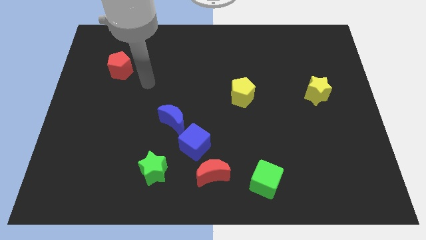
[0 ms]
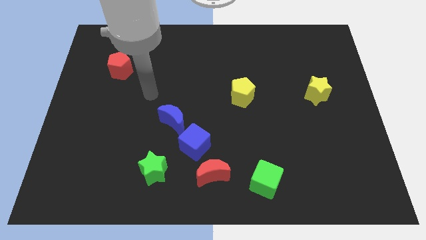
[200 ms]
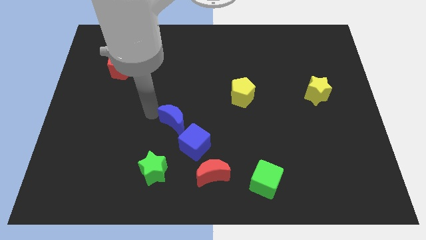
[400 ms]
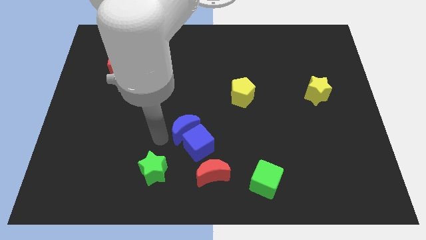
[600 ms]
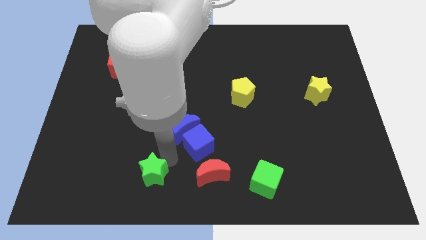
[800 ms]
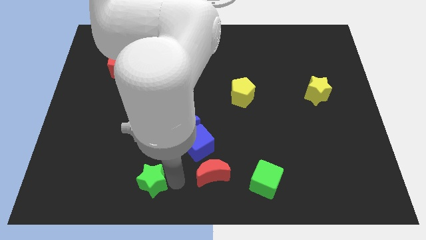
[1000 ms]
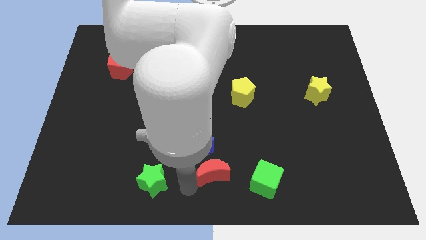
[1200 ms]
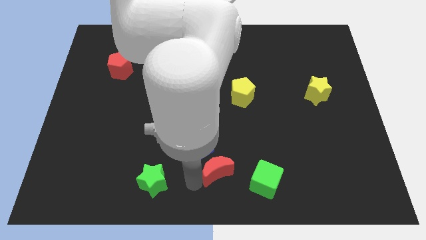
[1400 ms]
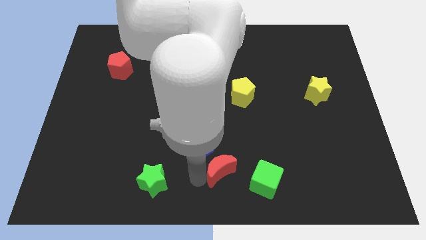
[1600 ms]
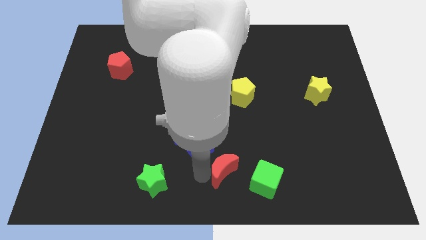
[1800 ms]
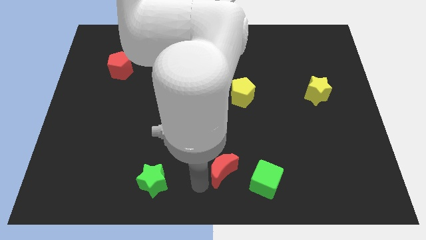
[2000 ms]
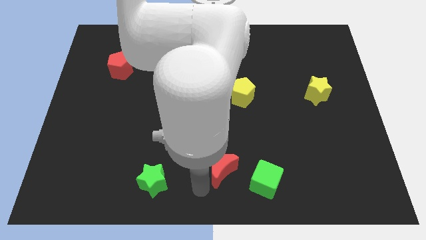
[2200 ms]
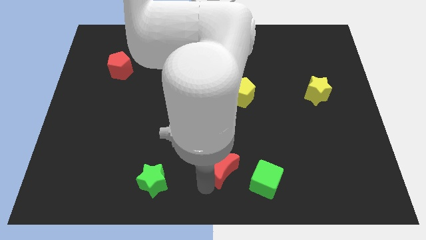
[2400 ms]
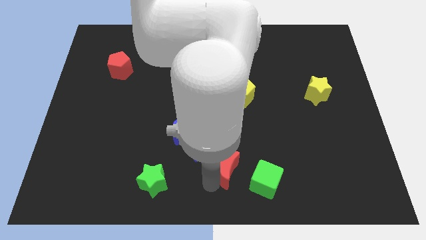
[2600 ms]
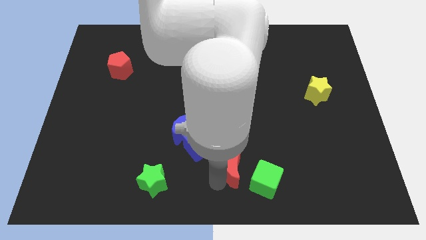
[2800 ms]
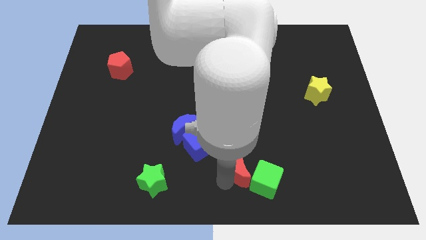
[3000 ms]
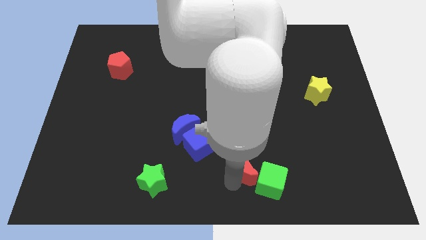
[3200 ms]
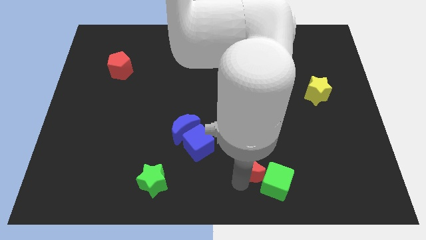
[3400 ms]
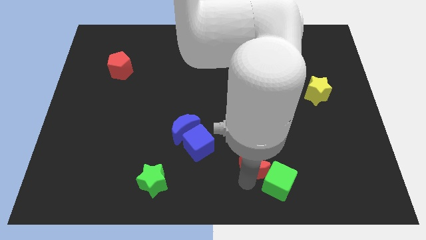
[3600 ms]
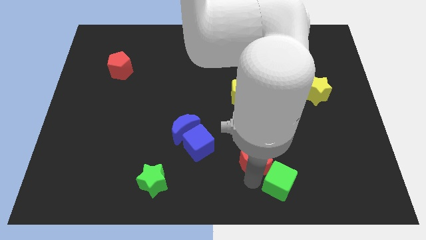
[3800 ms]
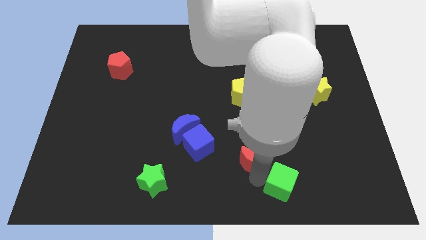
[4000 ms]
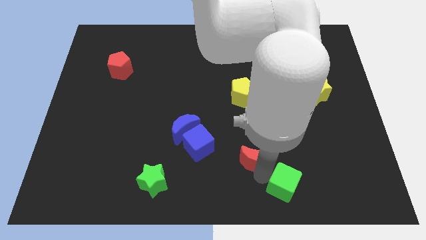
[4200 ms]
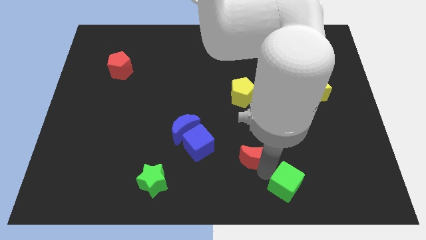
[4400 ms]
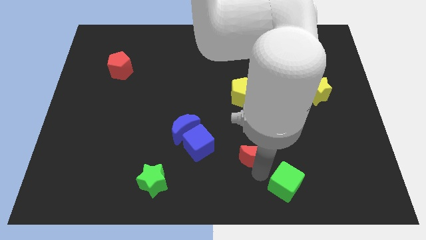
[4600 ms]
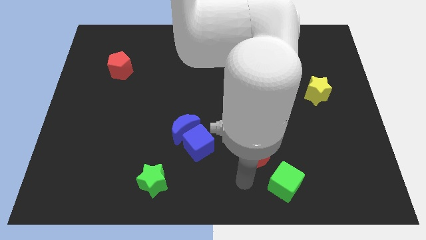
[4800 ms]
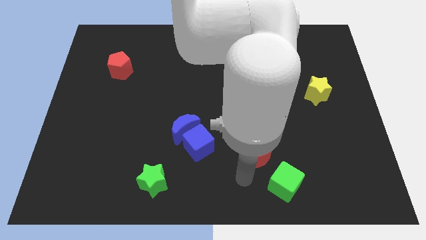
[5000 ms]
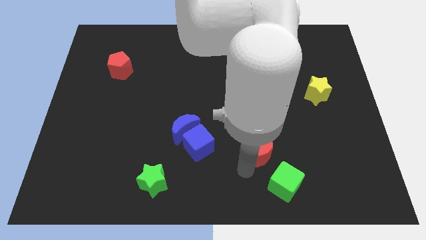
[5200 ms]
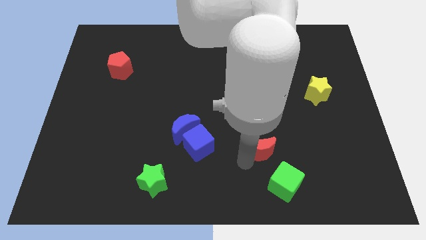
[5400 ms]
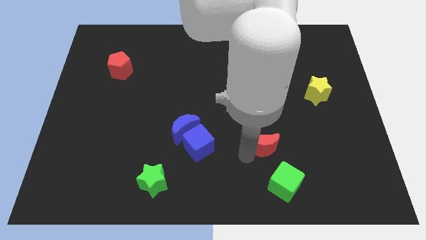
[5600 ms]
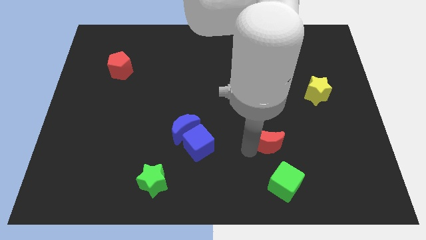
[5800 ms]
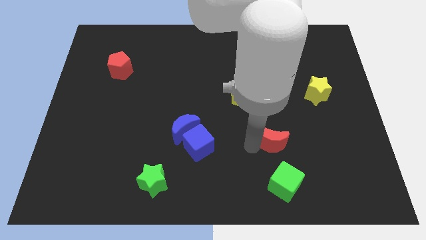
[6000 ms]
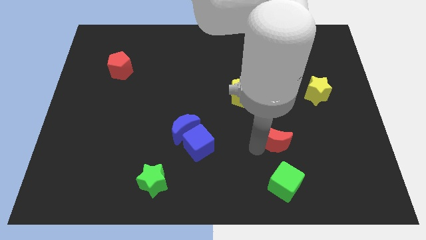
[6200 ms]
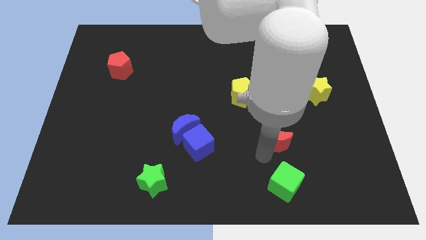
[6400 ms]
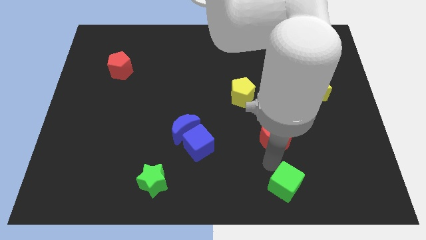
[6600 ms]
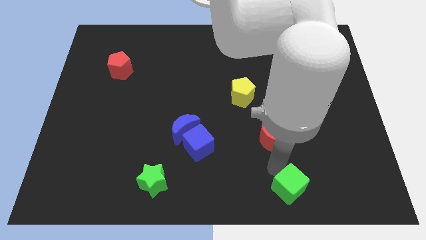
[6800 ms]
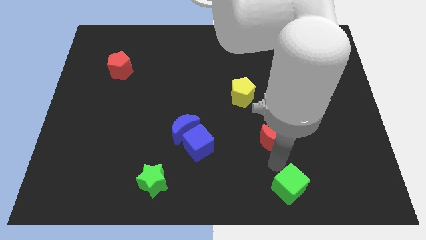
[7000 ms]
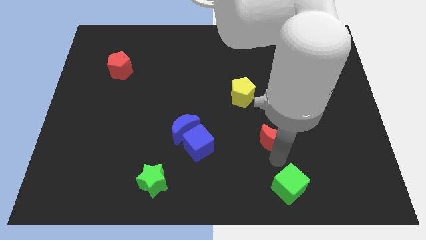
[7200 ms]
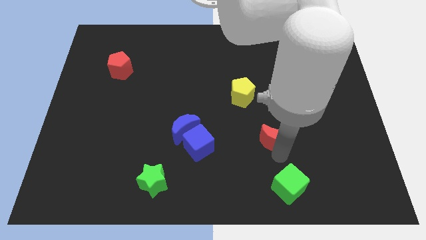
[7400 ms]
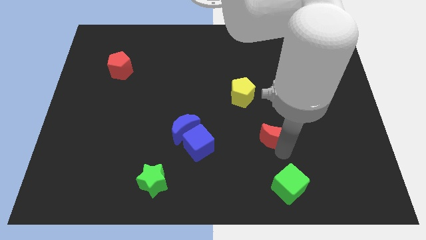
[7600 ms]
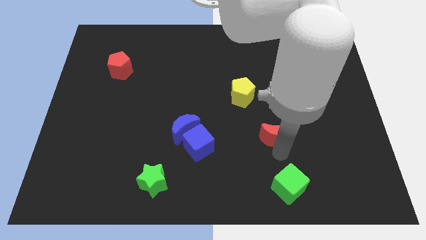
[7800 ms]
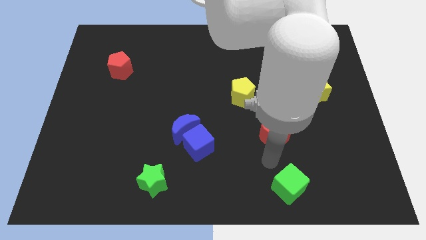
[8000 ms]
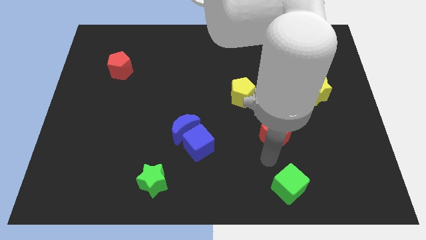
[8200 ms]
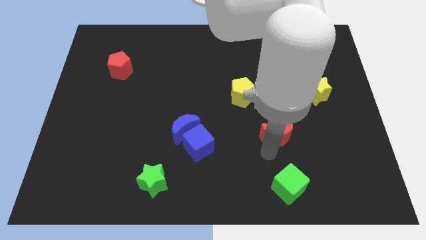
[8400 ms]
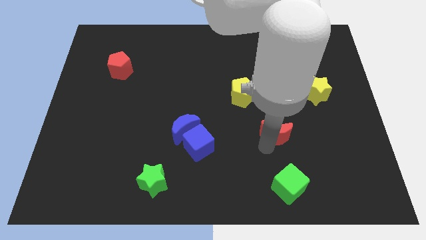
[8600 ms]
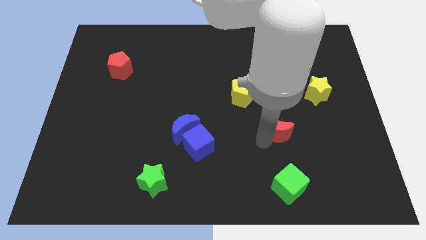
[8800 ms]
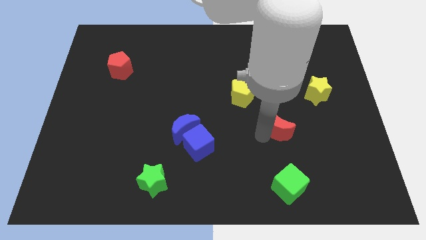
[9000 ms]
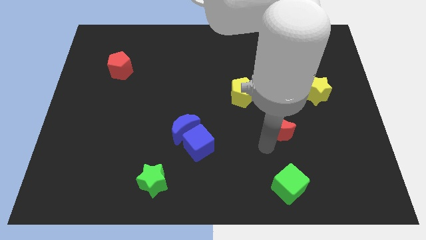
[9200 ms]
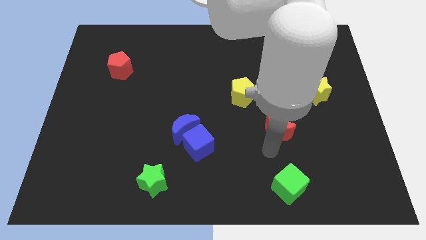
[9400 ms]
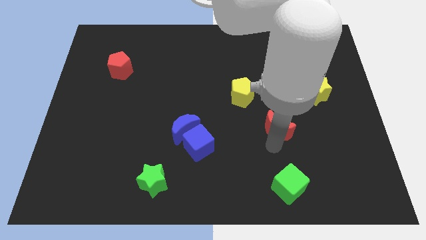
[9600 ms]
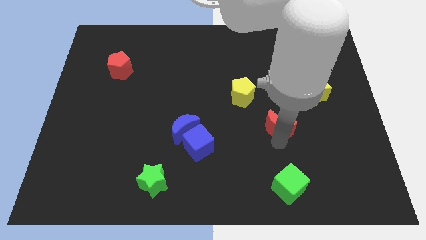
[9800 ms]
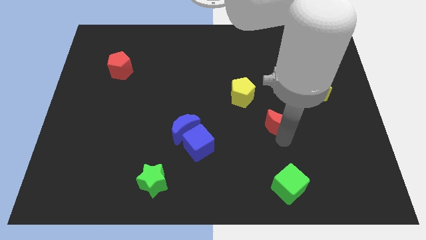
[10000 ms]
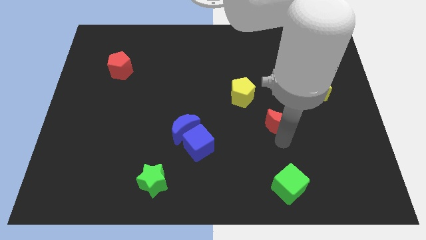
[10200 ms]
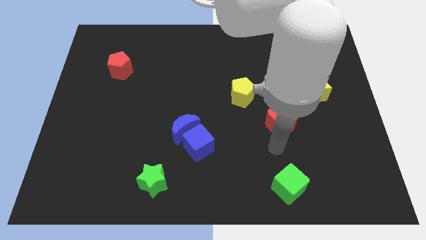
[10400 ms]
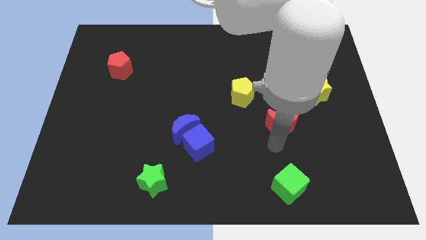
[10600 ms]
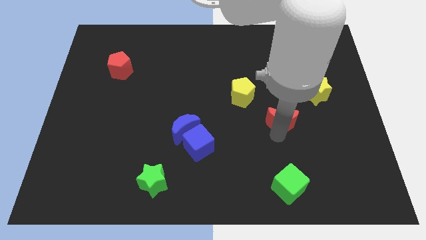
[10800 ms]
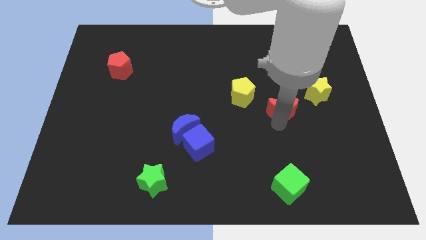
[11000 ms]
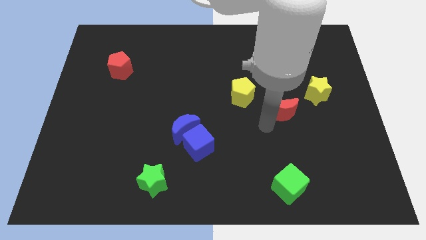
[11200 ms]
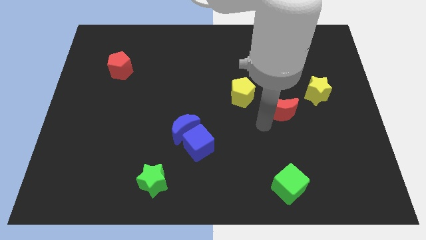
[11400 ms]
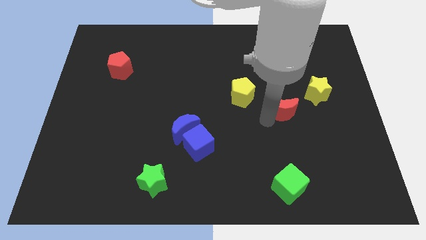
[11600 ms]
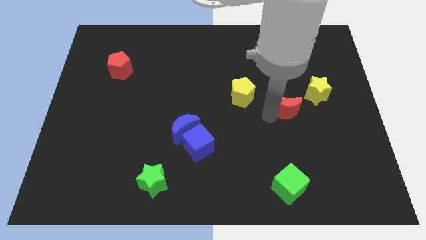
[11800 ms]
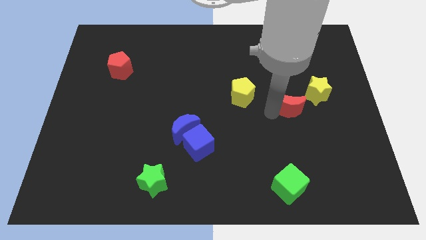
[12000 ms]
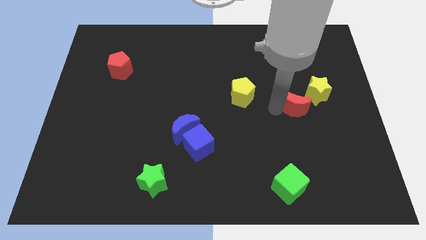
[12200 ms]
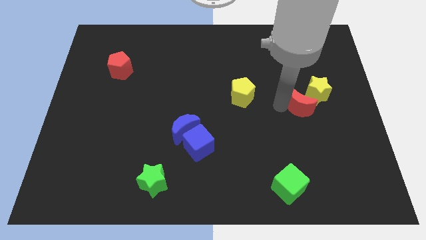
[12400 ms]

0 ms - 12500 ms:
move the red moon close to the yellow star

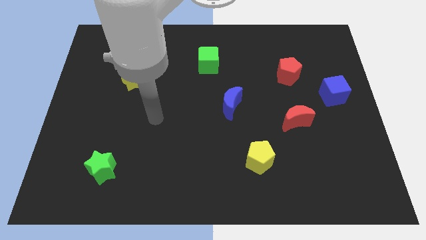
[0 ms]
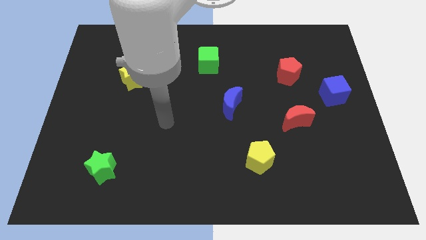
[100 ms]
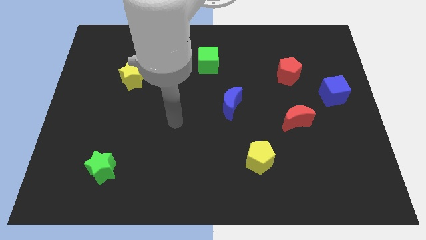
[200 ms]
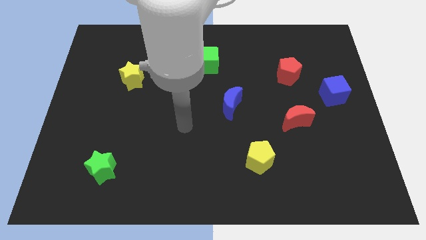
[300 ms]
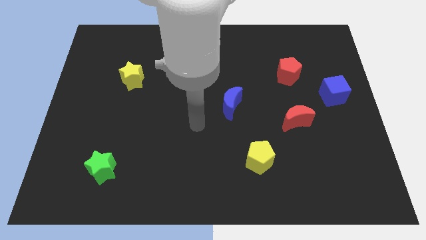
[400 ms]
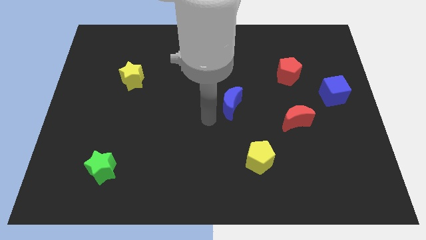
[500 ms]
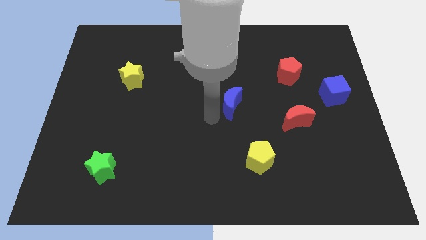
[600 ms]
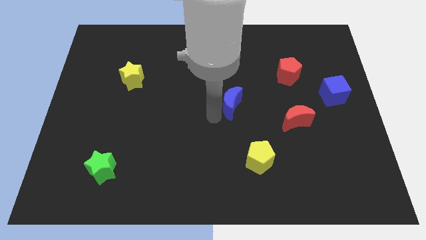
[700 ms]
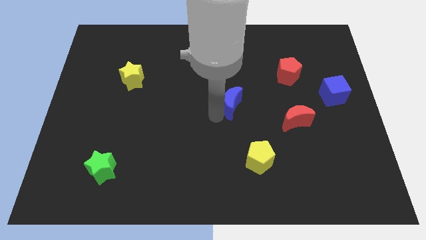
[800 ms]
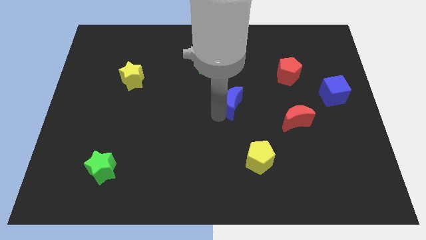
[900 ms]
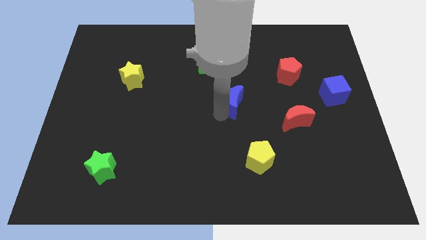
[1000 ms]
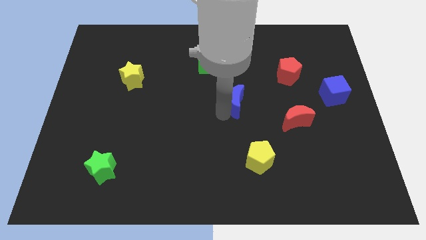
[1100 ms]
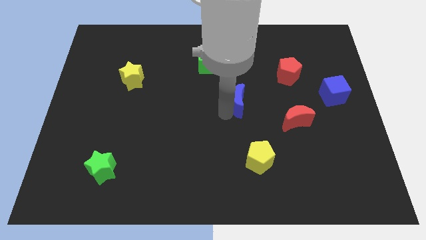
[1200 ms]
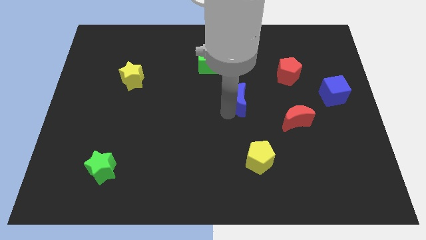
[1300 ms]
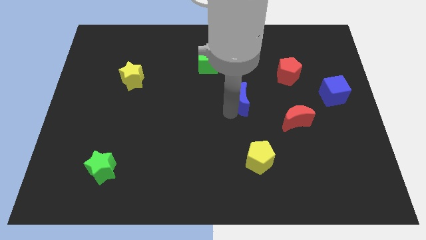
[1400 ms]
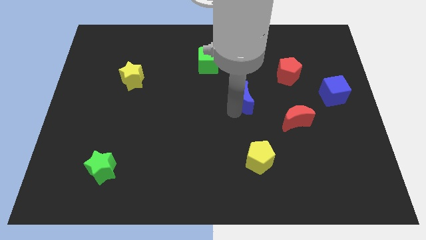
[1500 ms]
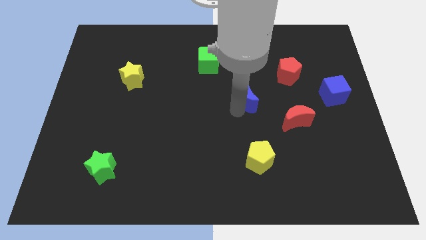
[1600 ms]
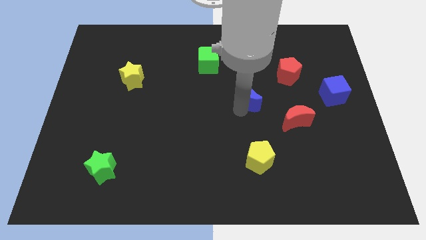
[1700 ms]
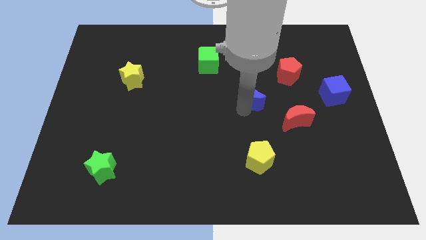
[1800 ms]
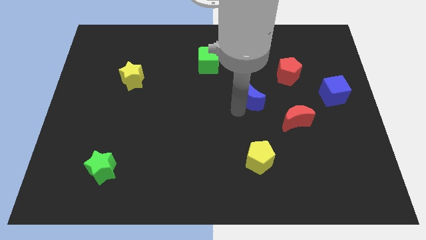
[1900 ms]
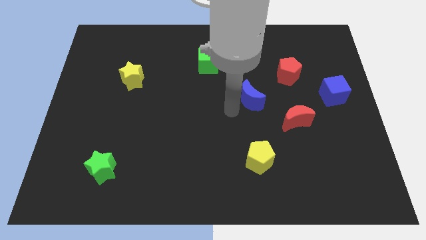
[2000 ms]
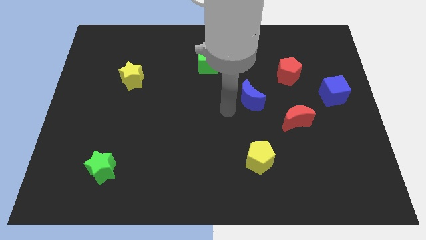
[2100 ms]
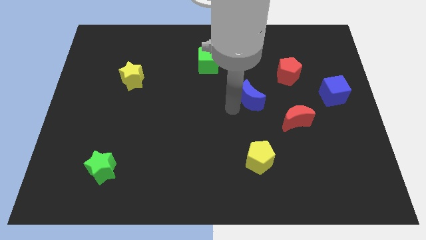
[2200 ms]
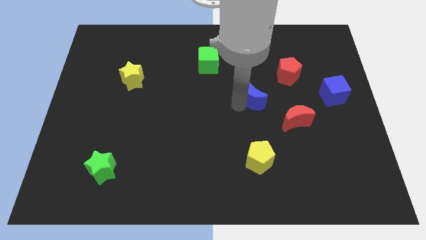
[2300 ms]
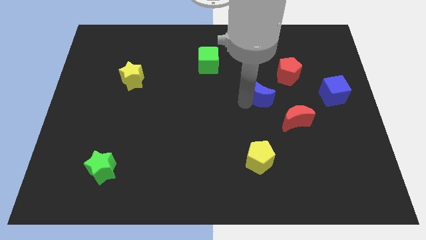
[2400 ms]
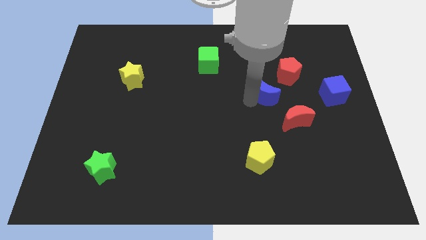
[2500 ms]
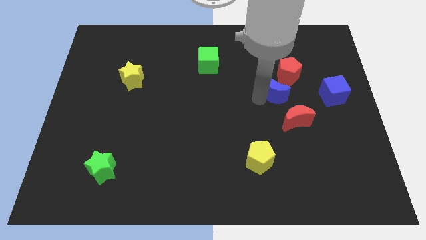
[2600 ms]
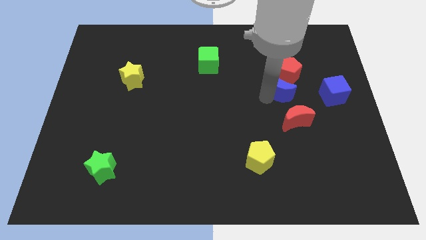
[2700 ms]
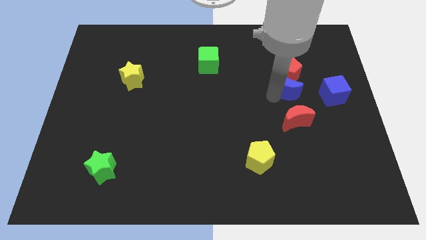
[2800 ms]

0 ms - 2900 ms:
put the blue moon to the red pentagon
